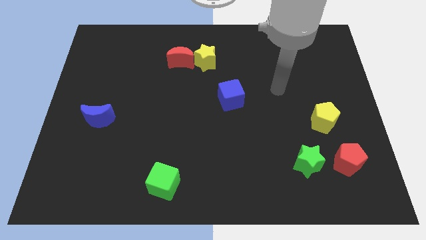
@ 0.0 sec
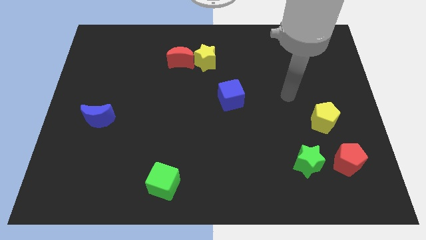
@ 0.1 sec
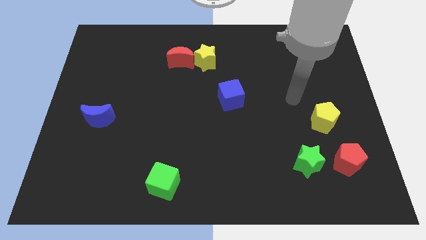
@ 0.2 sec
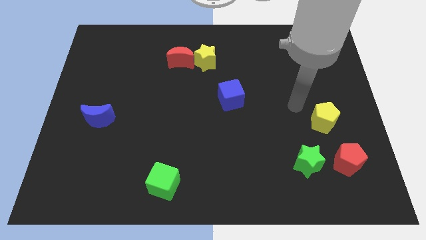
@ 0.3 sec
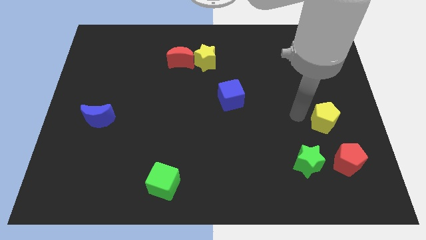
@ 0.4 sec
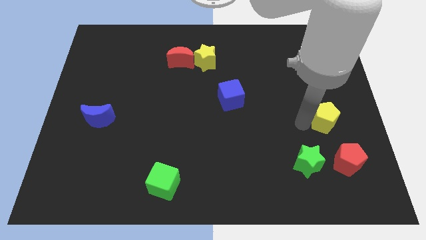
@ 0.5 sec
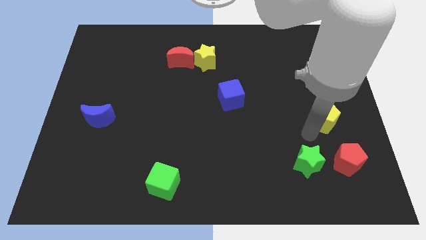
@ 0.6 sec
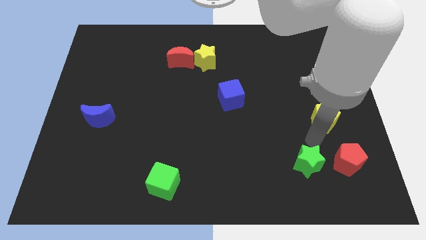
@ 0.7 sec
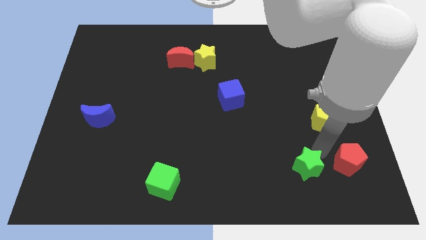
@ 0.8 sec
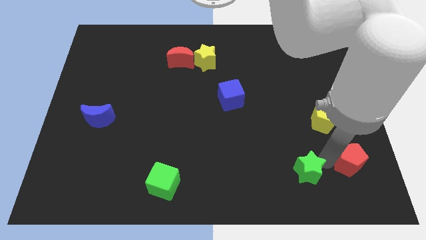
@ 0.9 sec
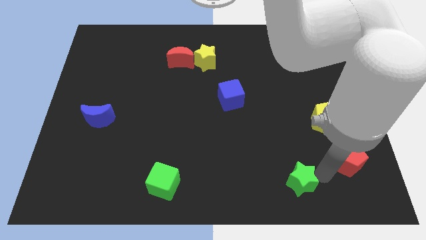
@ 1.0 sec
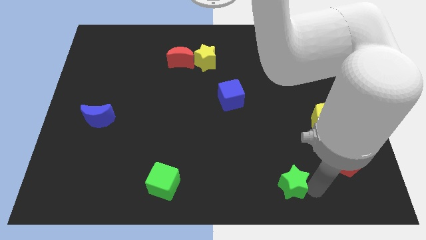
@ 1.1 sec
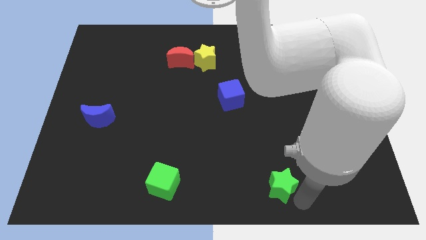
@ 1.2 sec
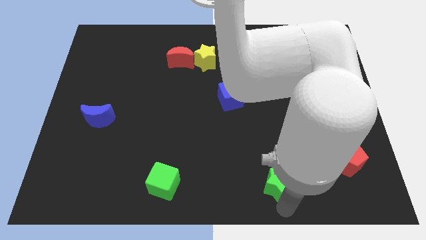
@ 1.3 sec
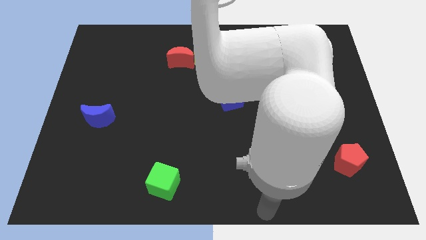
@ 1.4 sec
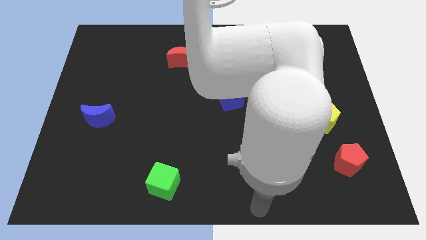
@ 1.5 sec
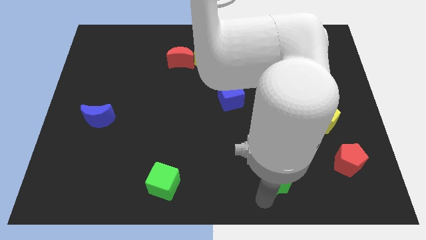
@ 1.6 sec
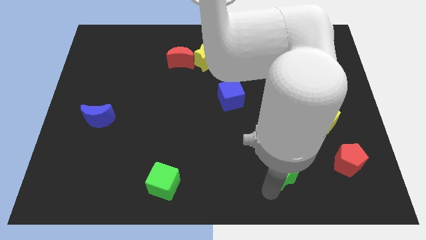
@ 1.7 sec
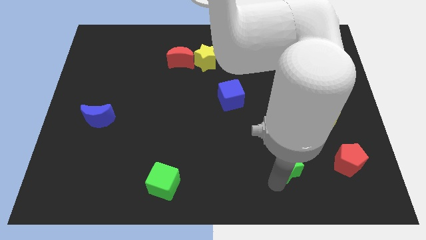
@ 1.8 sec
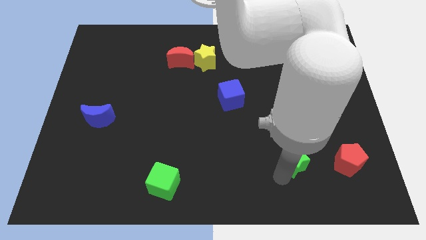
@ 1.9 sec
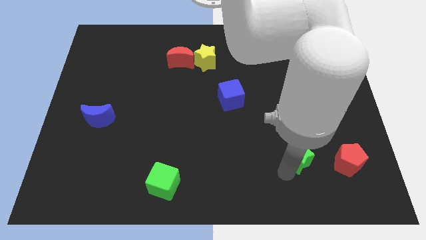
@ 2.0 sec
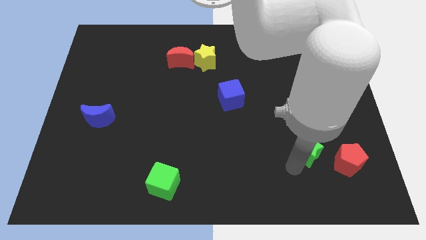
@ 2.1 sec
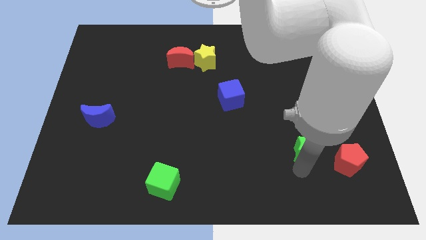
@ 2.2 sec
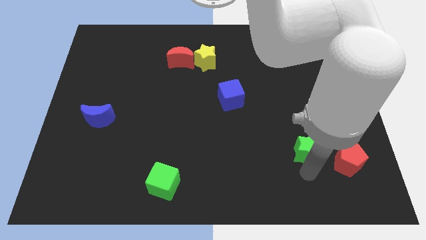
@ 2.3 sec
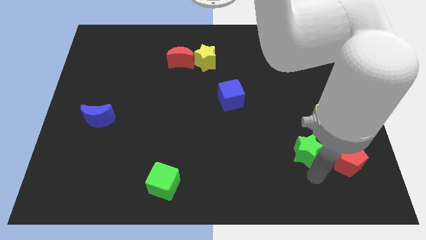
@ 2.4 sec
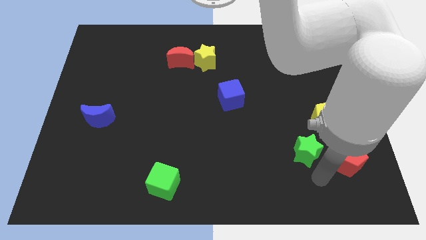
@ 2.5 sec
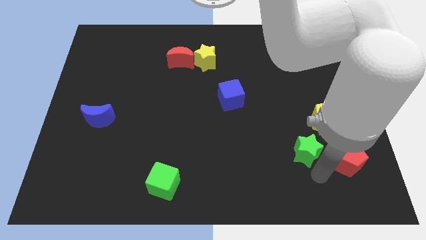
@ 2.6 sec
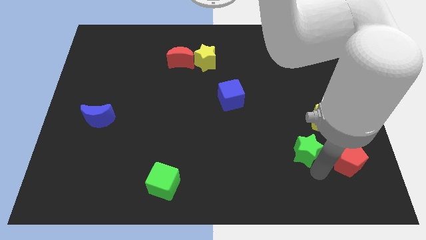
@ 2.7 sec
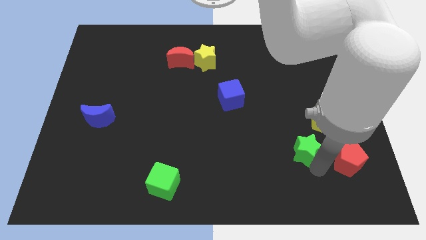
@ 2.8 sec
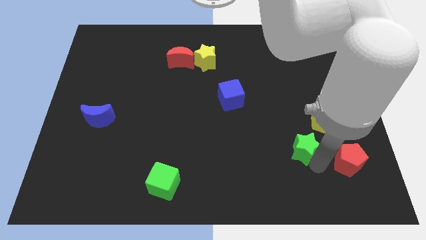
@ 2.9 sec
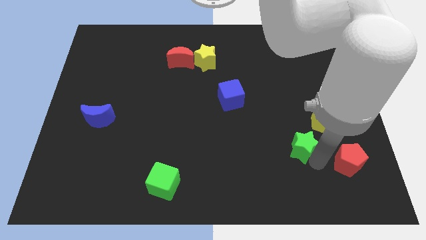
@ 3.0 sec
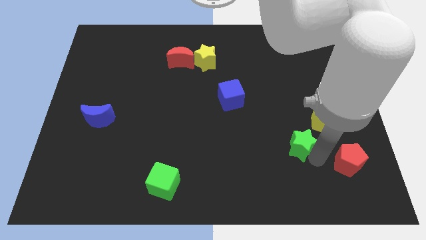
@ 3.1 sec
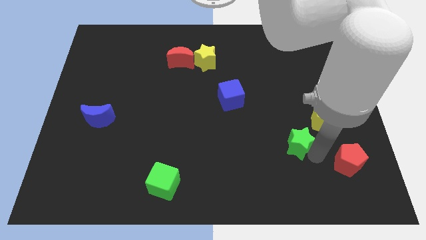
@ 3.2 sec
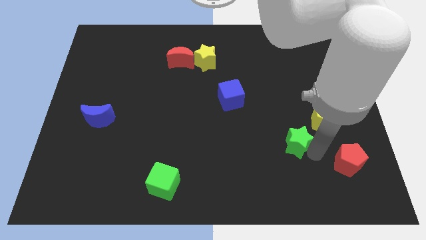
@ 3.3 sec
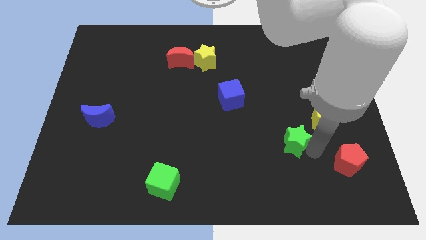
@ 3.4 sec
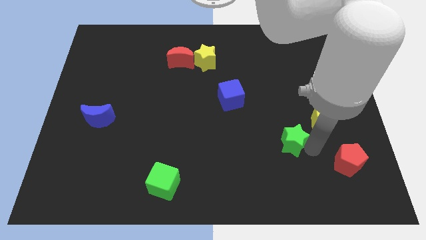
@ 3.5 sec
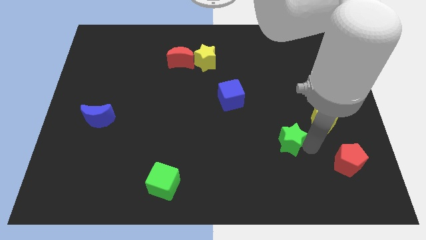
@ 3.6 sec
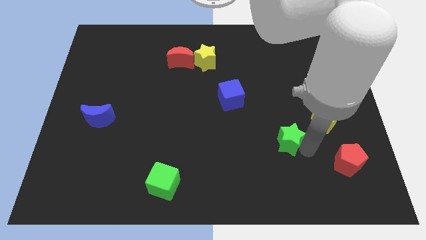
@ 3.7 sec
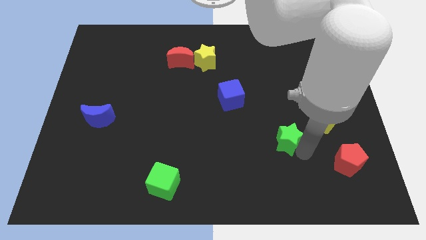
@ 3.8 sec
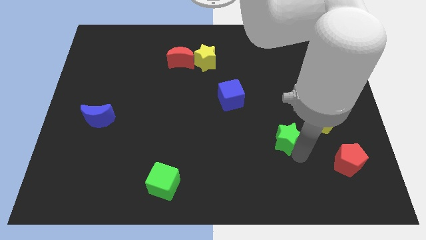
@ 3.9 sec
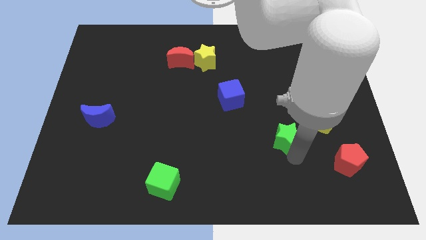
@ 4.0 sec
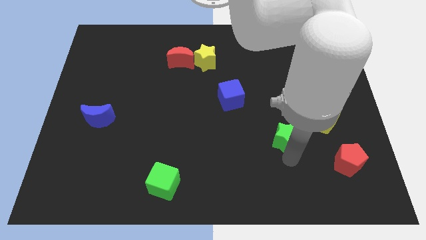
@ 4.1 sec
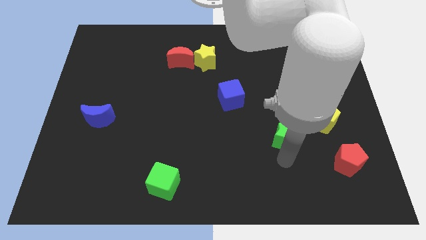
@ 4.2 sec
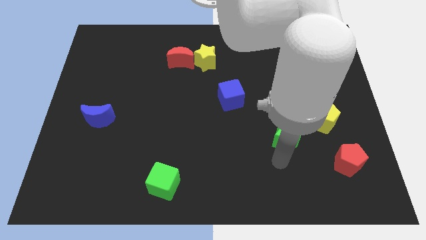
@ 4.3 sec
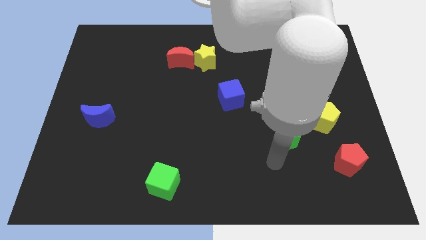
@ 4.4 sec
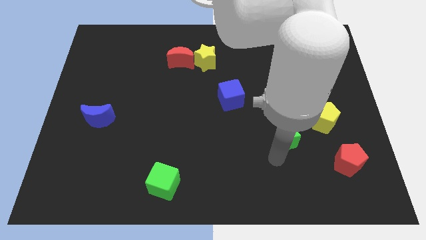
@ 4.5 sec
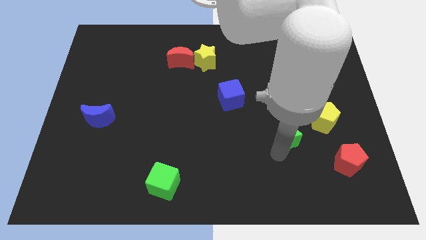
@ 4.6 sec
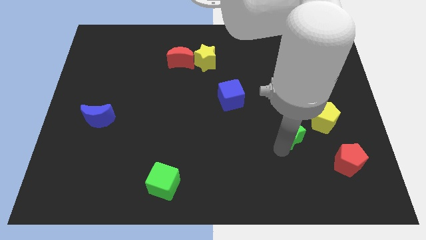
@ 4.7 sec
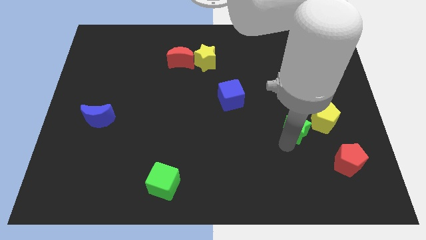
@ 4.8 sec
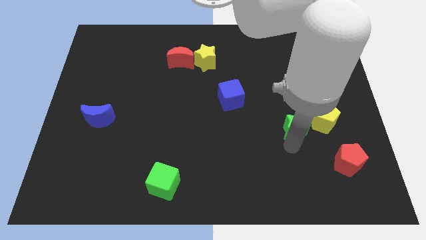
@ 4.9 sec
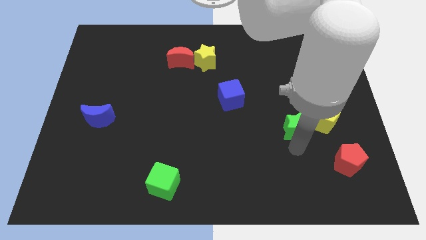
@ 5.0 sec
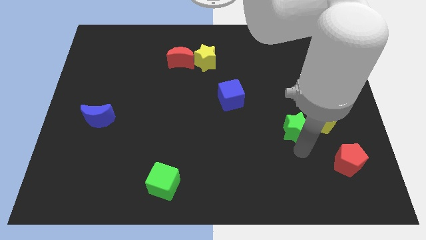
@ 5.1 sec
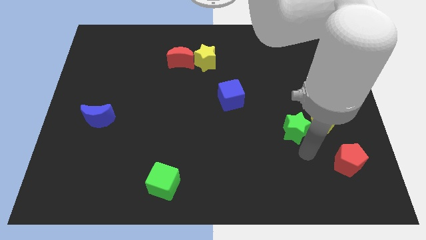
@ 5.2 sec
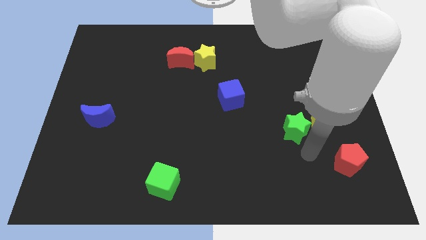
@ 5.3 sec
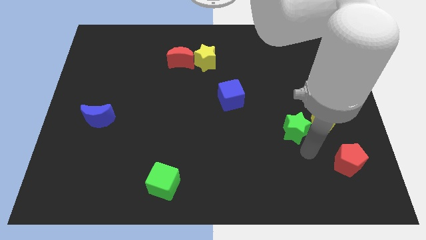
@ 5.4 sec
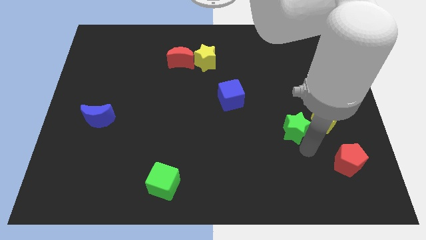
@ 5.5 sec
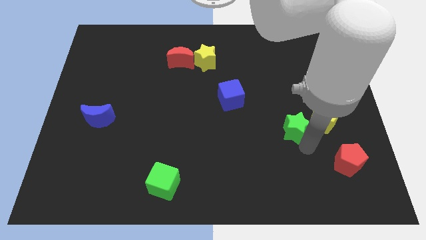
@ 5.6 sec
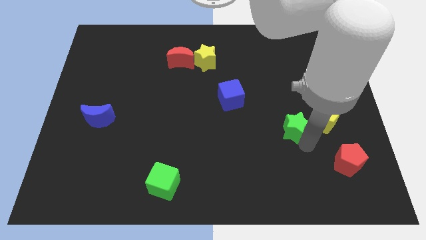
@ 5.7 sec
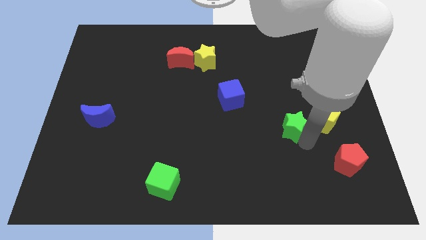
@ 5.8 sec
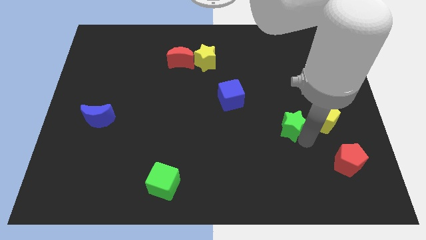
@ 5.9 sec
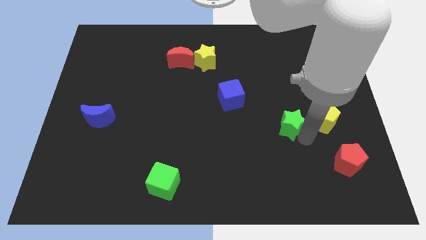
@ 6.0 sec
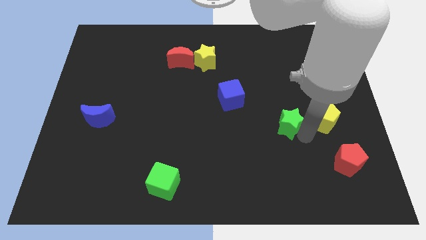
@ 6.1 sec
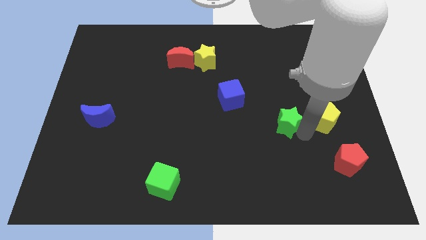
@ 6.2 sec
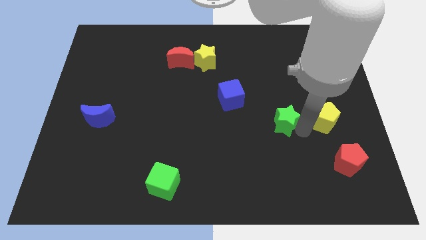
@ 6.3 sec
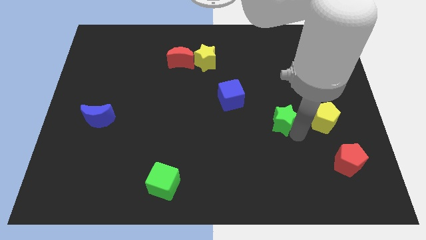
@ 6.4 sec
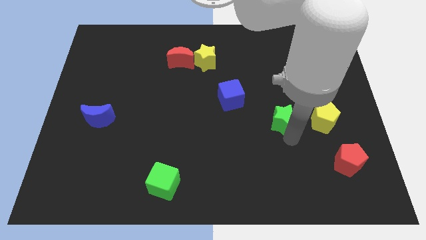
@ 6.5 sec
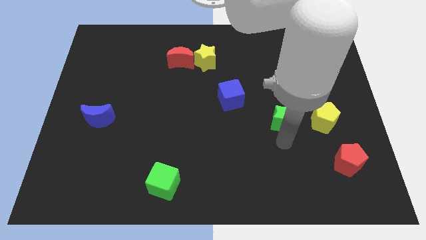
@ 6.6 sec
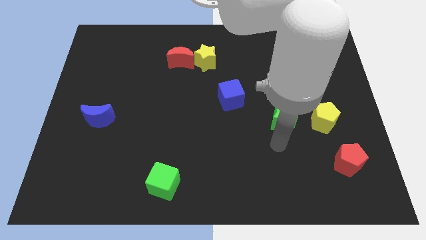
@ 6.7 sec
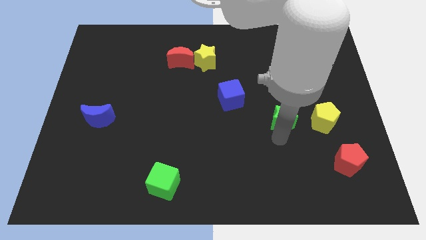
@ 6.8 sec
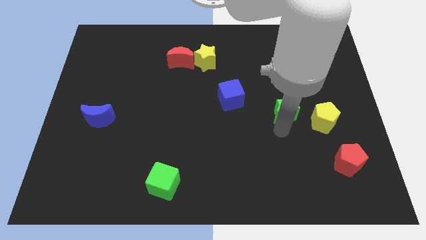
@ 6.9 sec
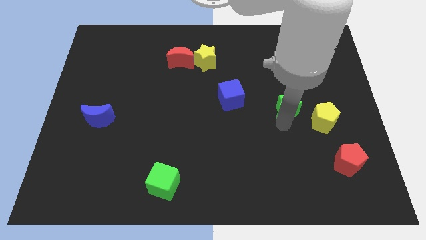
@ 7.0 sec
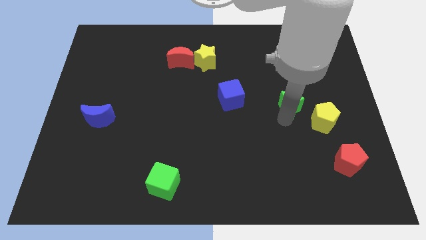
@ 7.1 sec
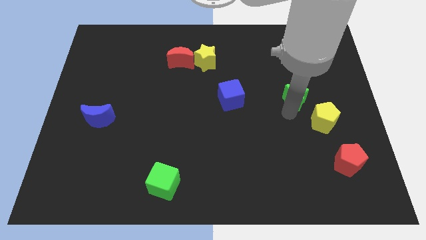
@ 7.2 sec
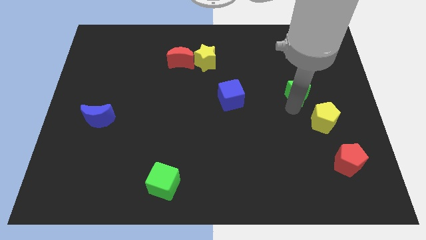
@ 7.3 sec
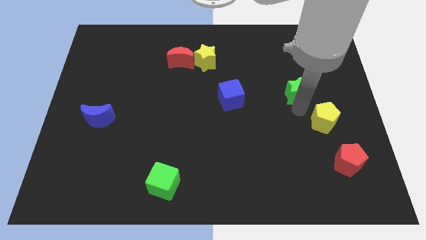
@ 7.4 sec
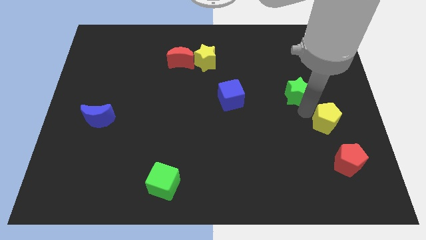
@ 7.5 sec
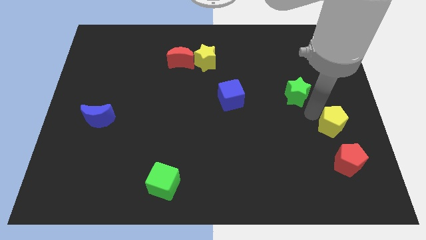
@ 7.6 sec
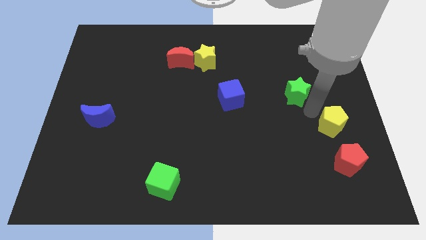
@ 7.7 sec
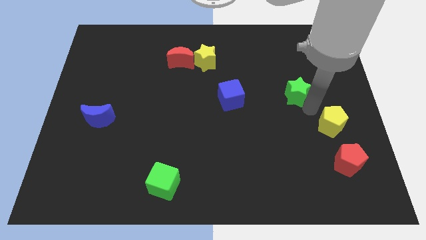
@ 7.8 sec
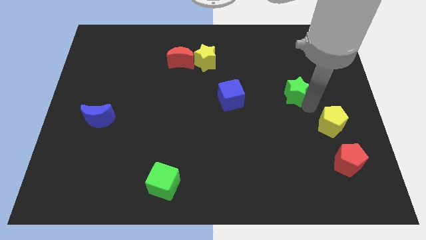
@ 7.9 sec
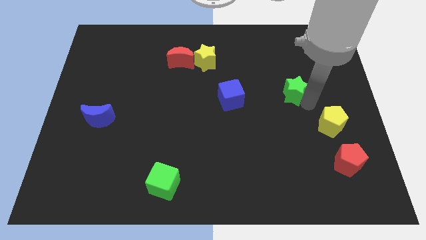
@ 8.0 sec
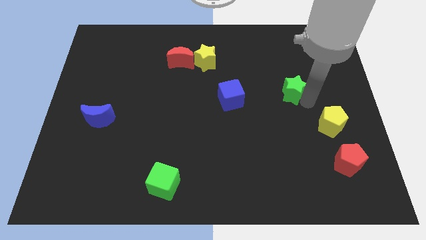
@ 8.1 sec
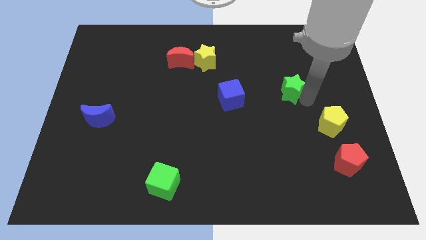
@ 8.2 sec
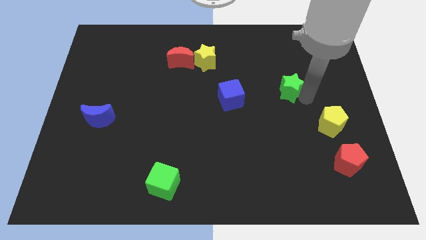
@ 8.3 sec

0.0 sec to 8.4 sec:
move the green star upwards
